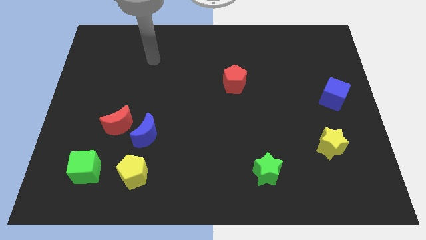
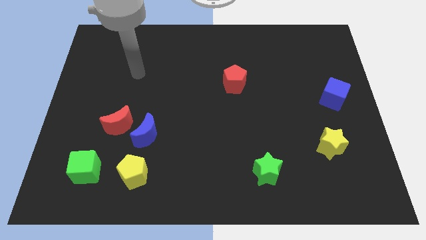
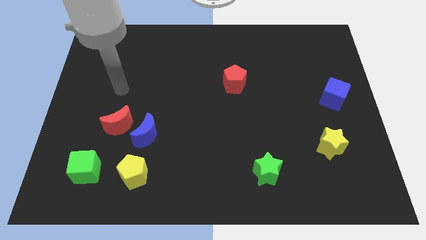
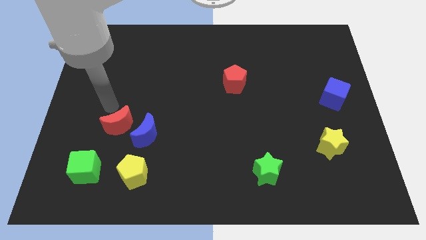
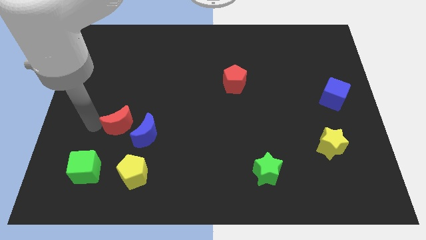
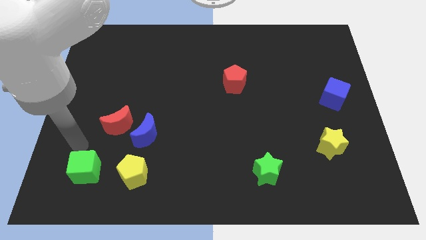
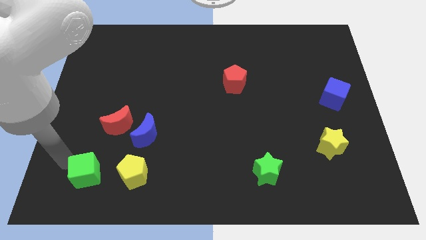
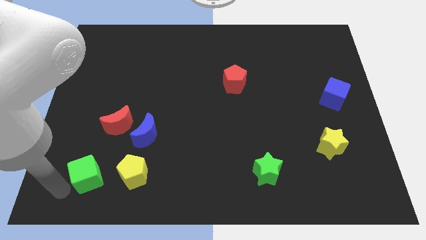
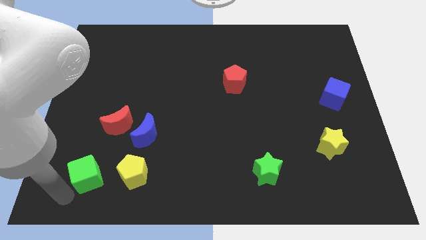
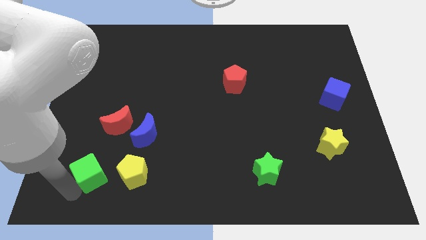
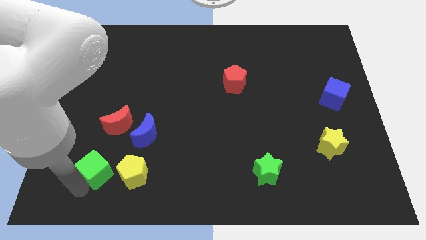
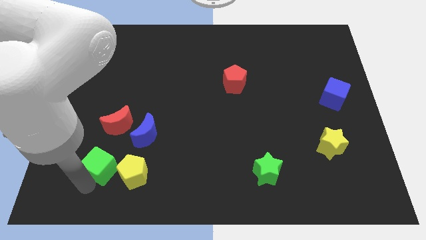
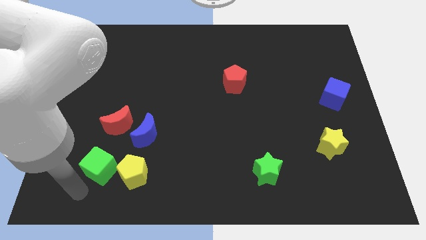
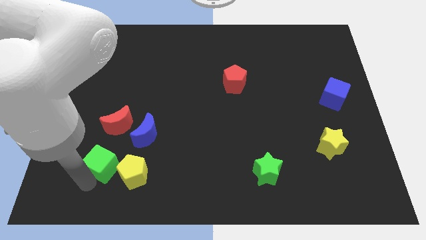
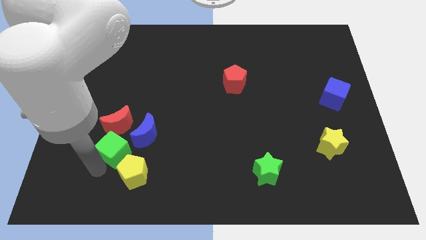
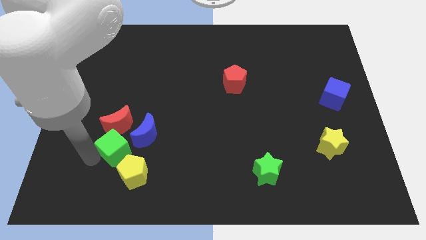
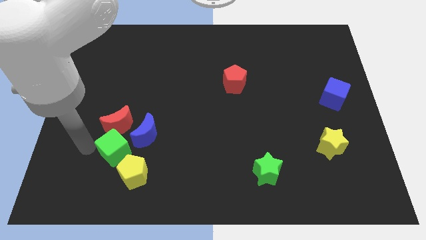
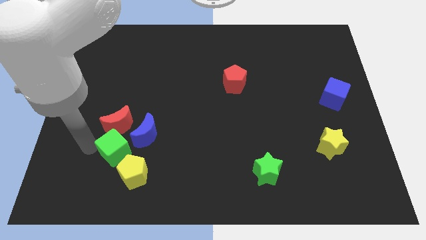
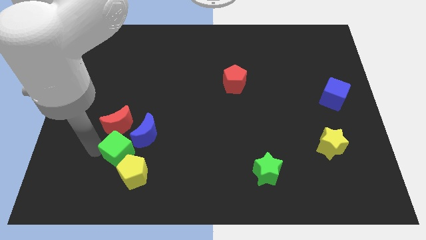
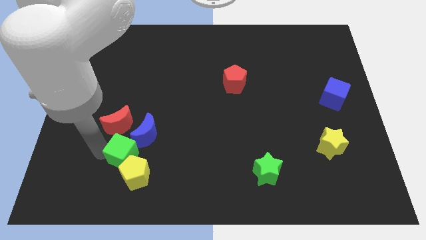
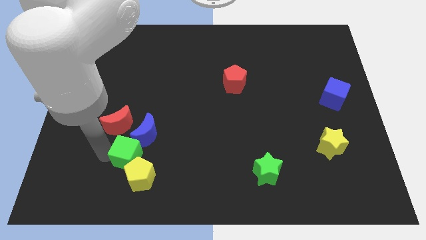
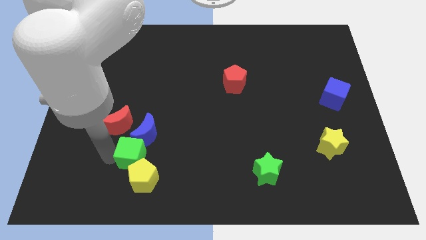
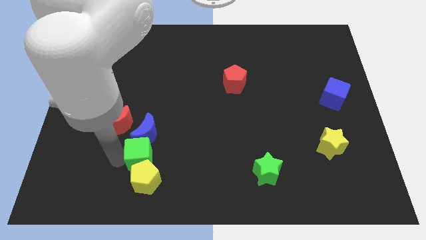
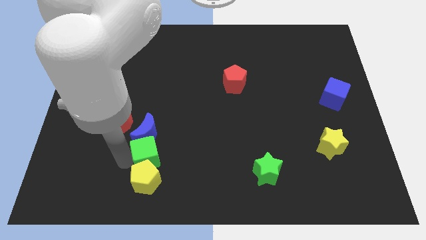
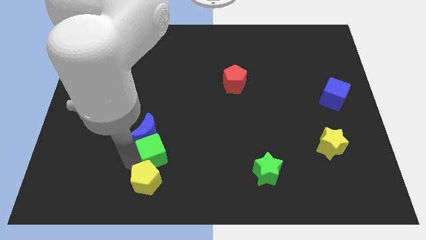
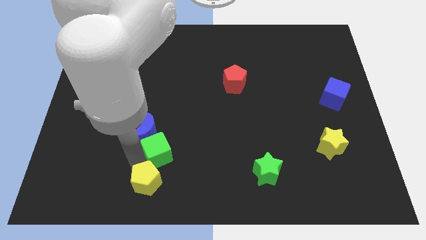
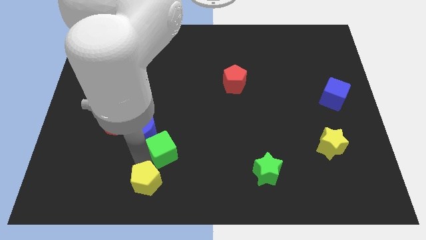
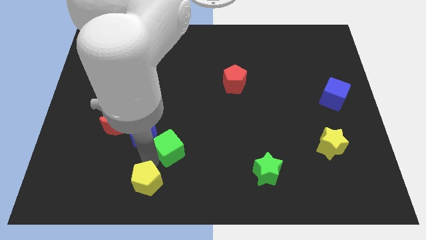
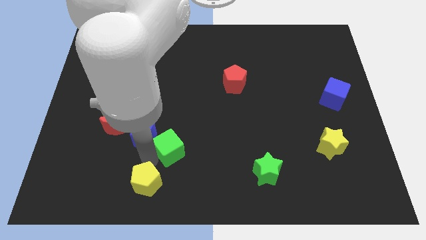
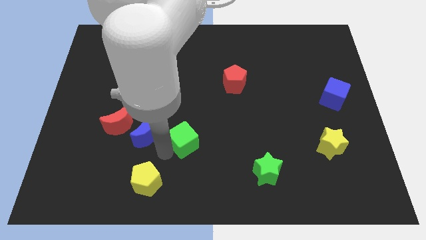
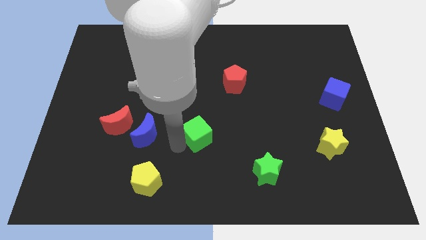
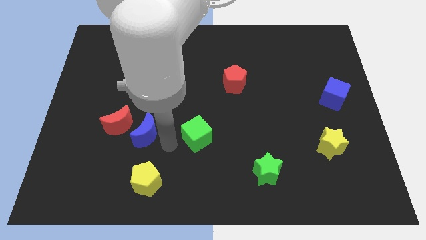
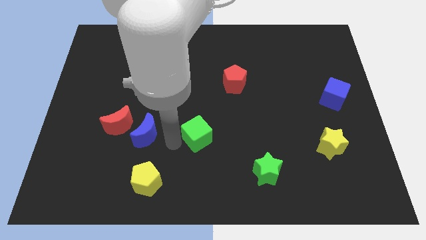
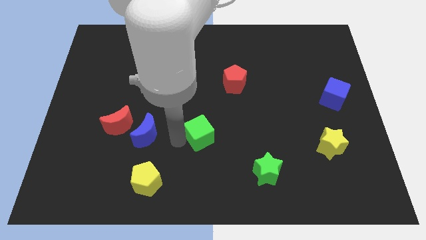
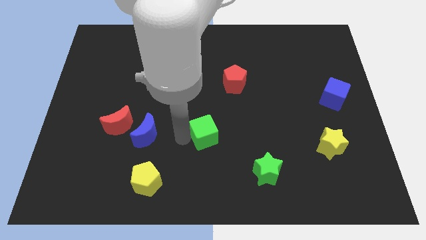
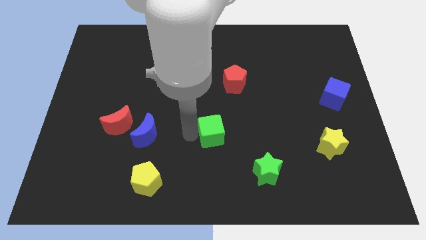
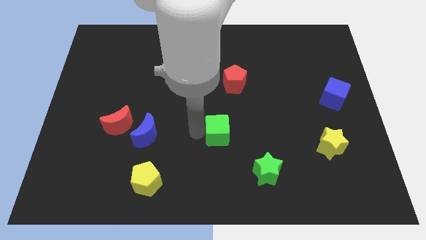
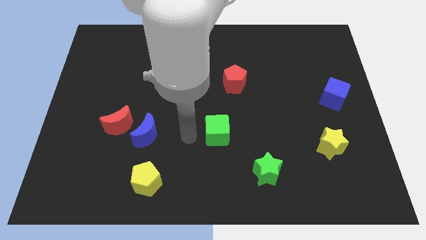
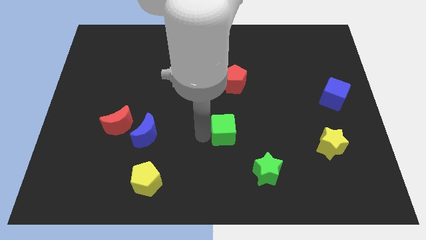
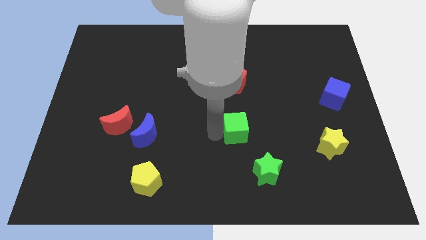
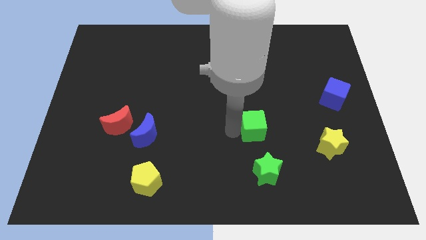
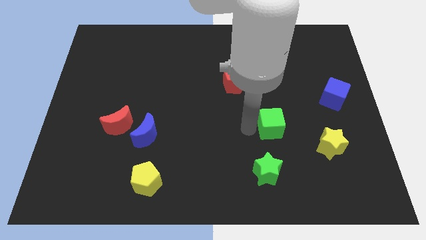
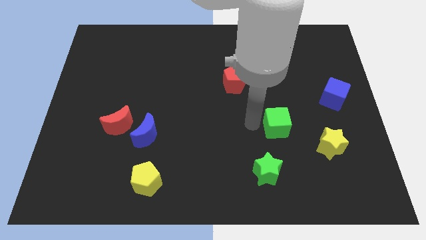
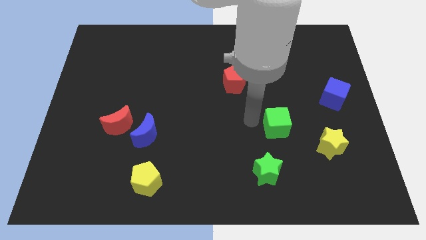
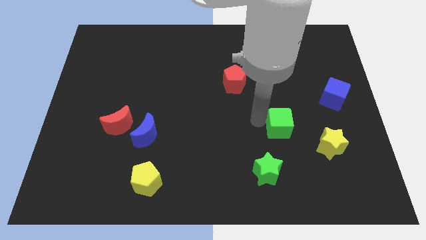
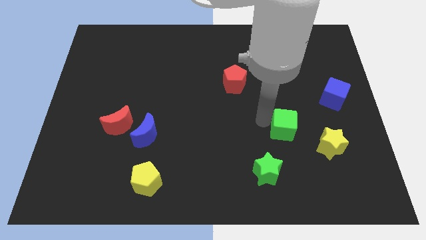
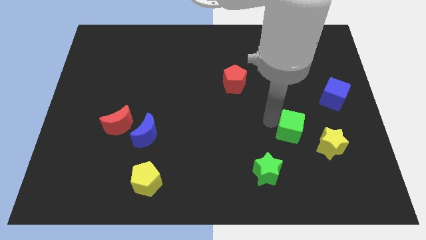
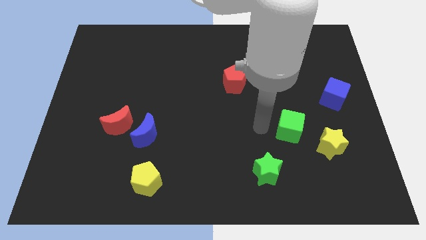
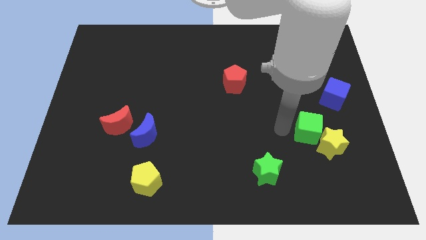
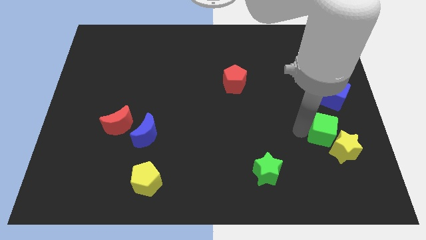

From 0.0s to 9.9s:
slide the green cube to the bottom side of the blue cube

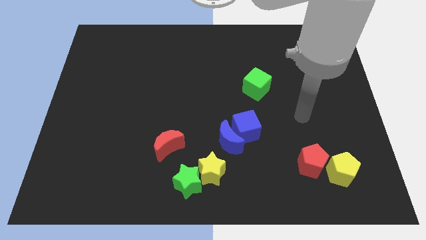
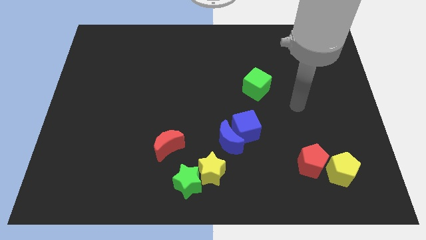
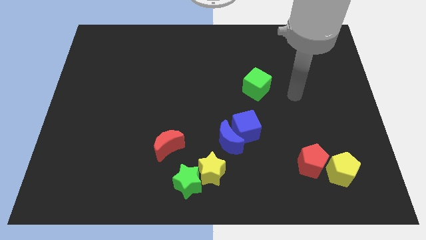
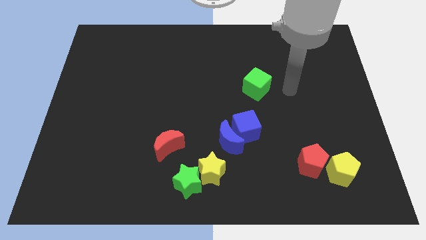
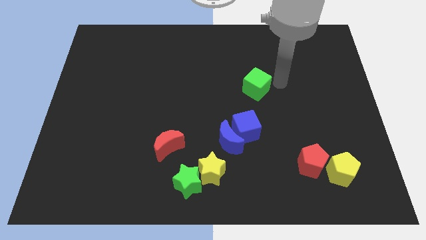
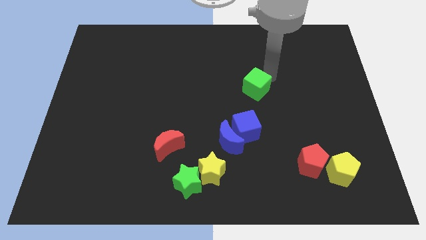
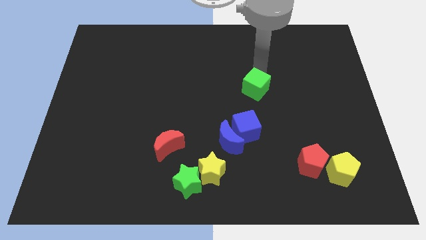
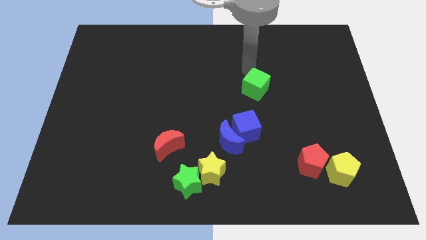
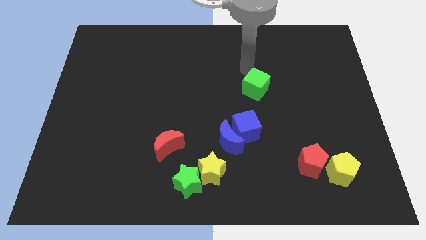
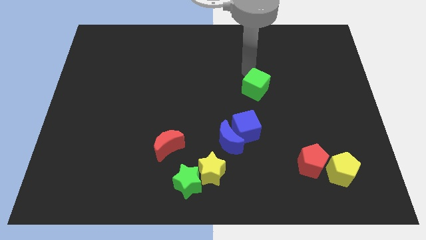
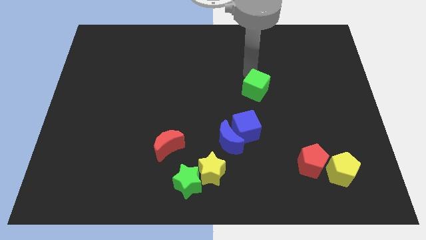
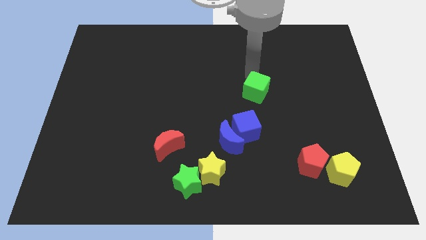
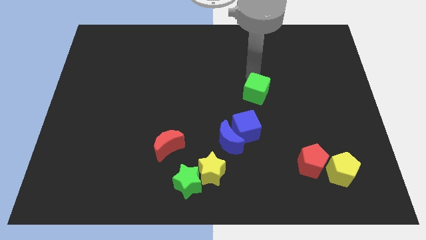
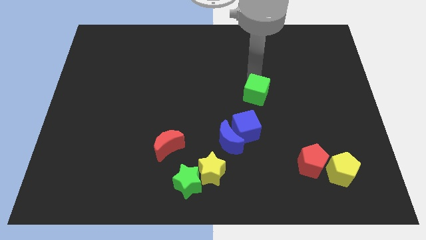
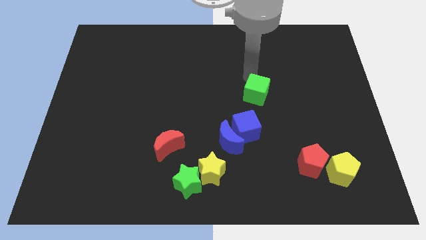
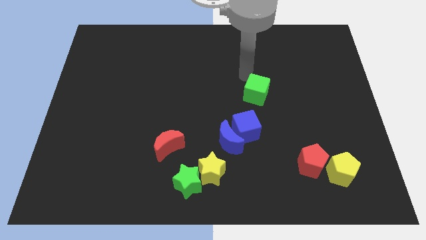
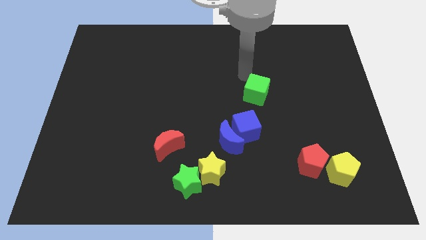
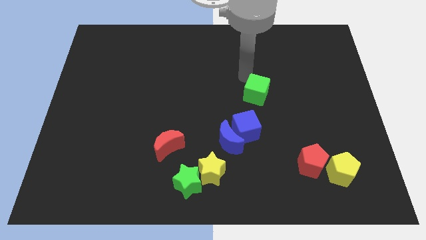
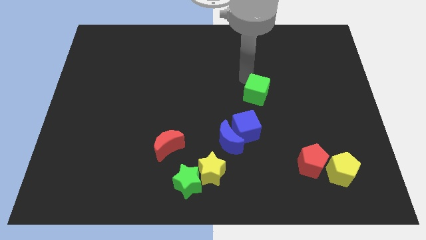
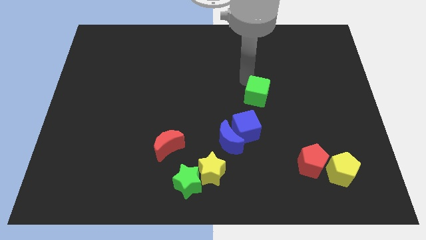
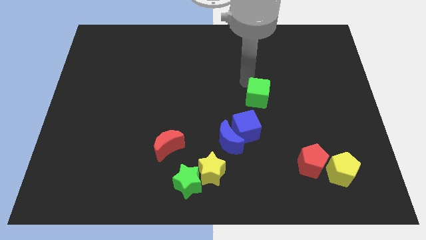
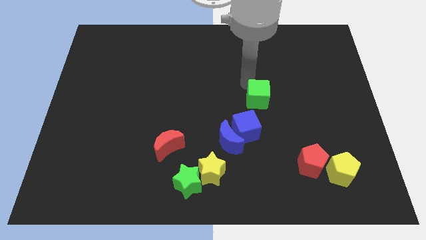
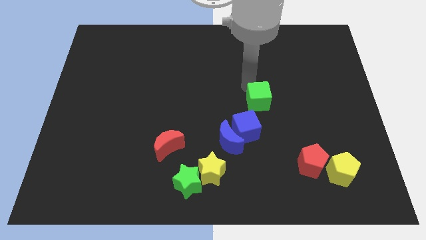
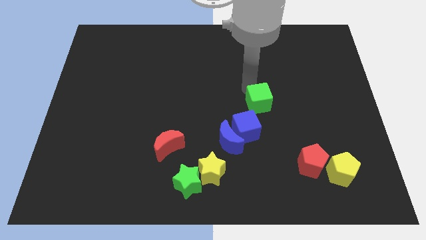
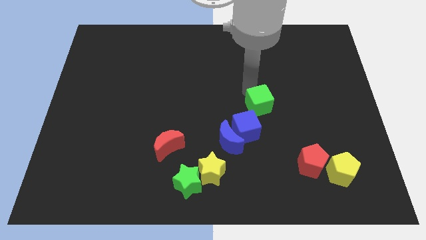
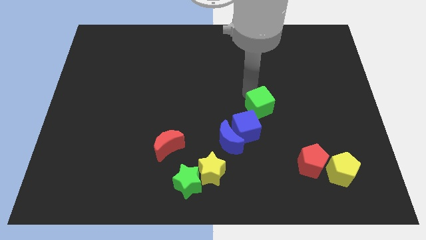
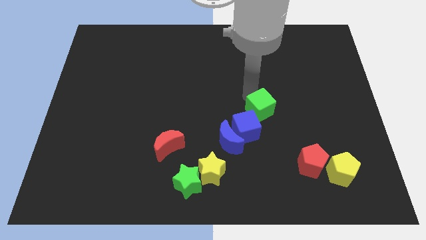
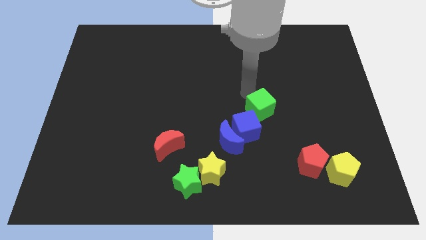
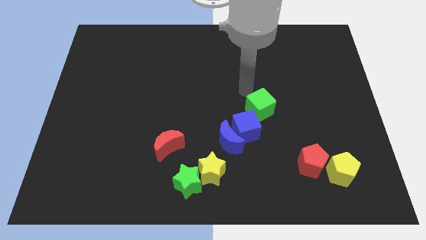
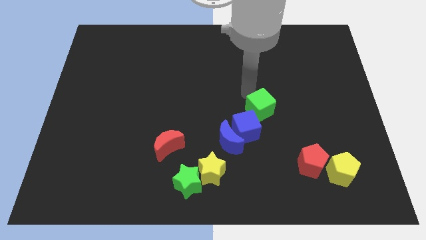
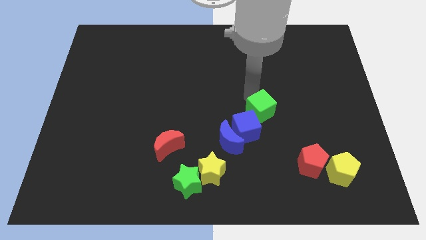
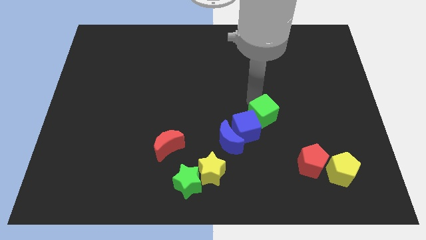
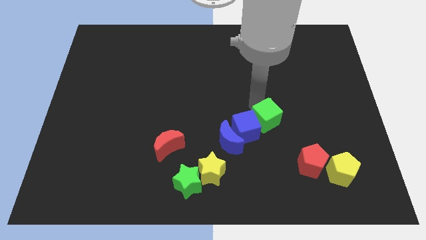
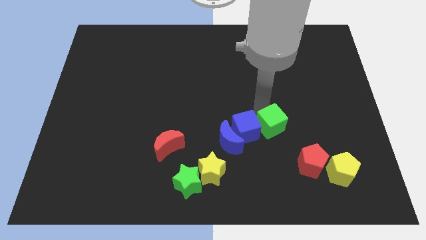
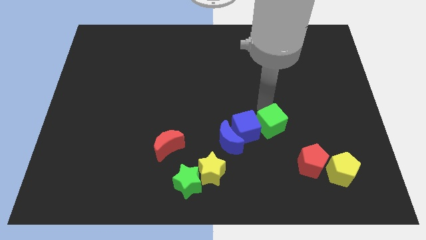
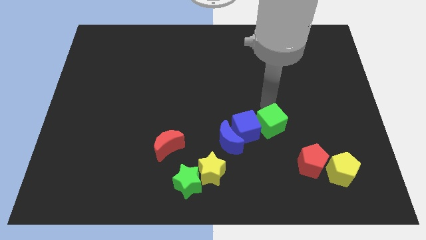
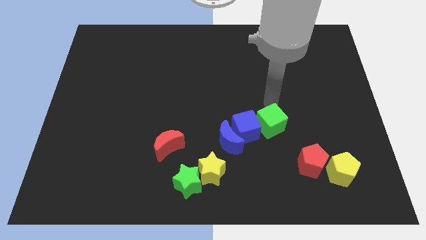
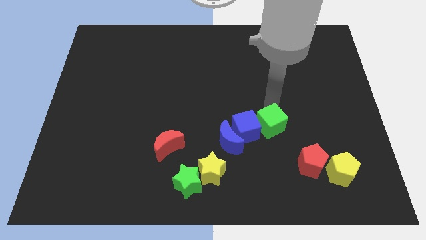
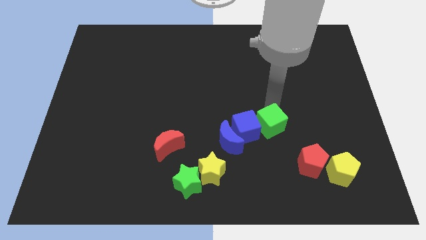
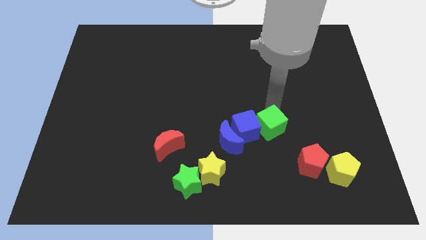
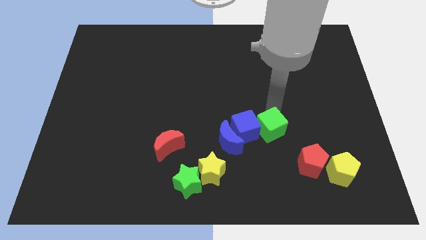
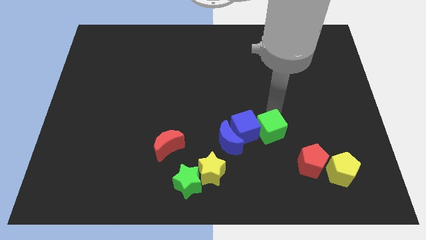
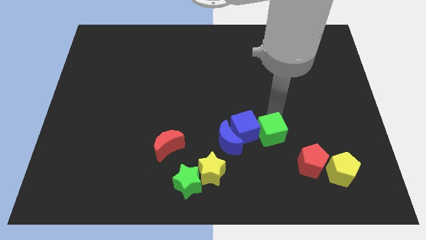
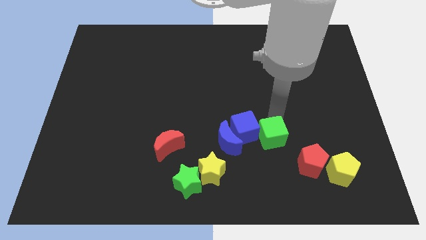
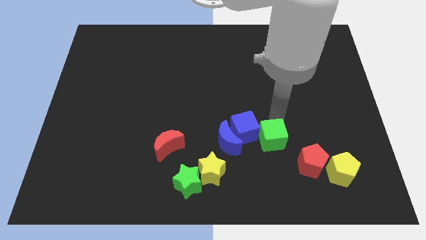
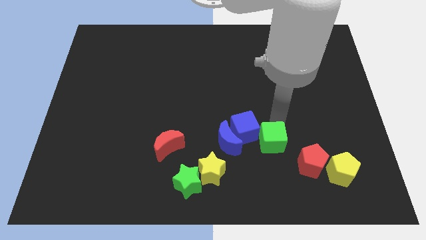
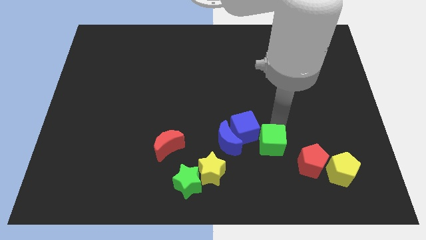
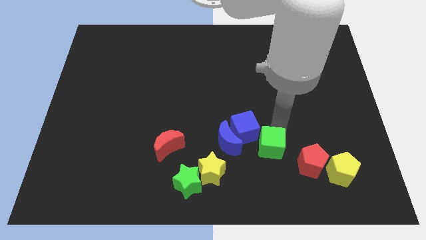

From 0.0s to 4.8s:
slide the green cube just left of the red pentagon
